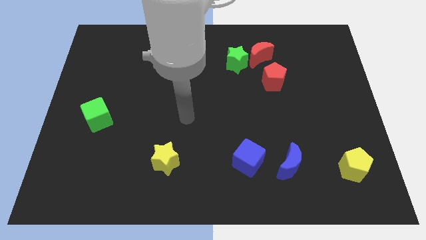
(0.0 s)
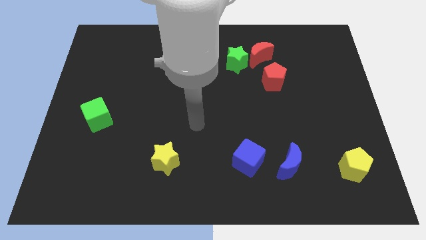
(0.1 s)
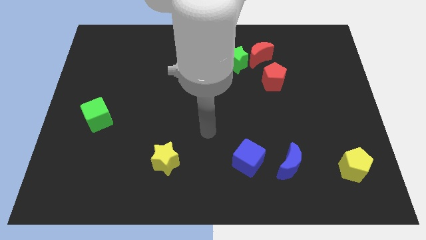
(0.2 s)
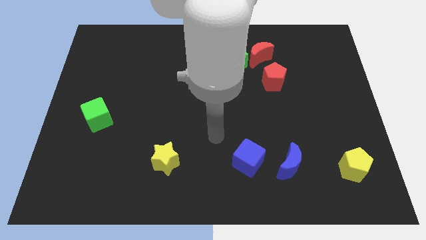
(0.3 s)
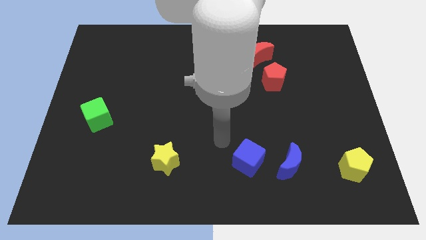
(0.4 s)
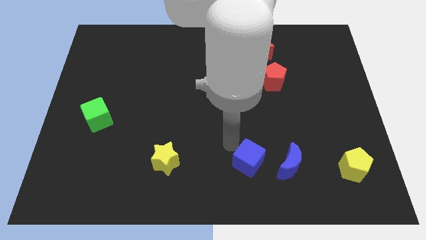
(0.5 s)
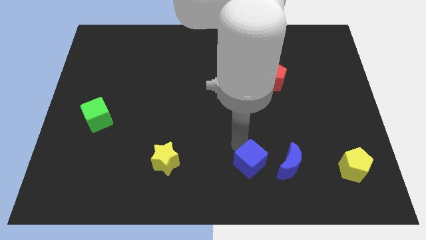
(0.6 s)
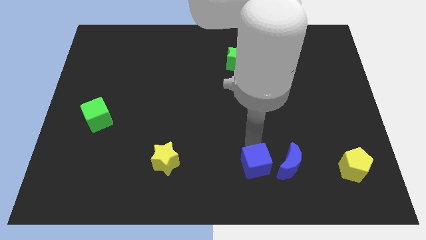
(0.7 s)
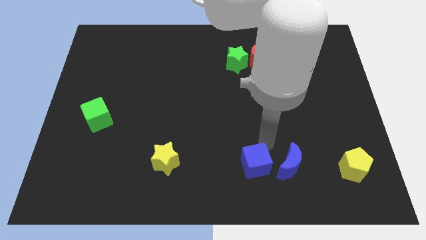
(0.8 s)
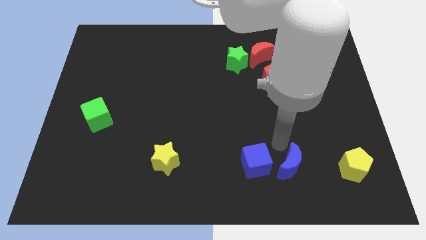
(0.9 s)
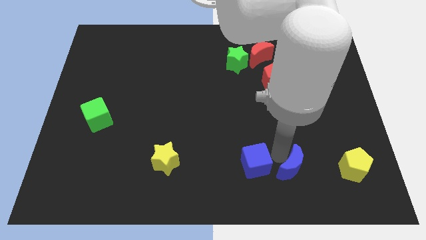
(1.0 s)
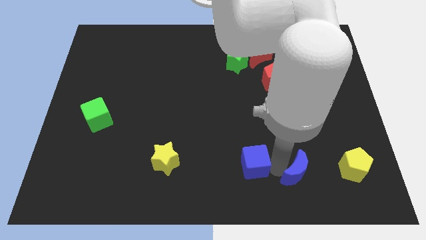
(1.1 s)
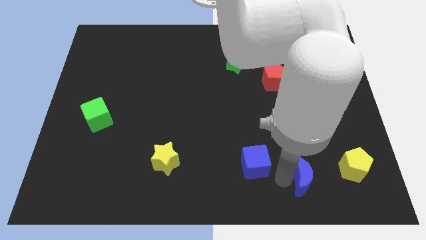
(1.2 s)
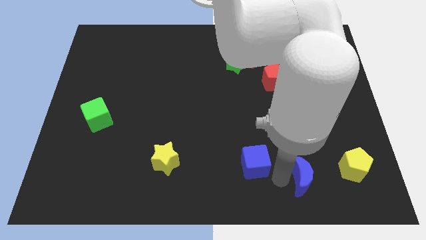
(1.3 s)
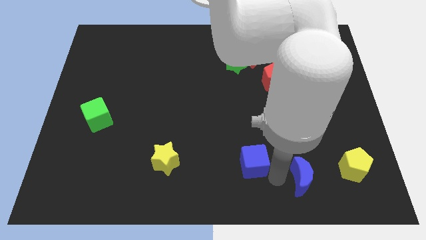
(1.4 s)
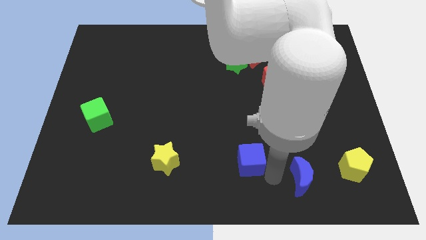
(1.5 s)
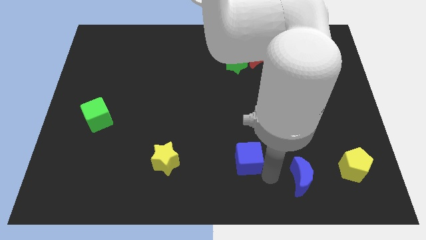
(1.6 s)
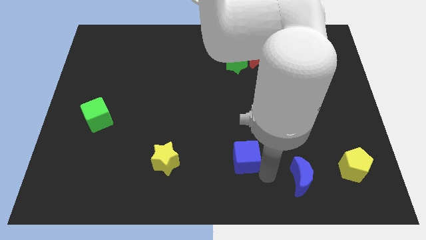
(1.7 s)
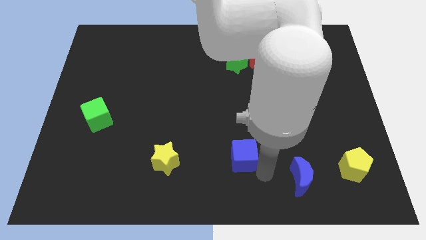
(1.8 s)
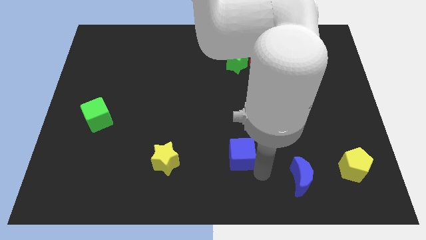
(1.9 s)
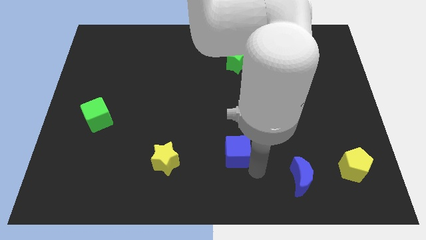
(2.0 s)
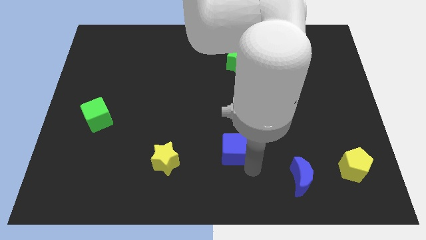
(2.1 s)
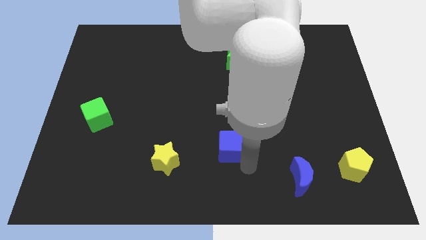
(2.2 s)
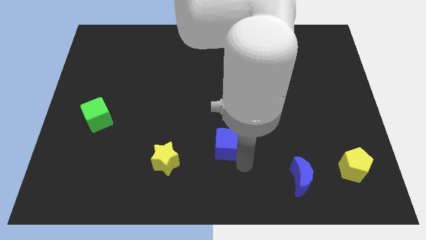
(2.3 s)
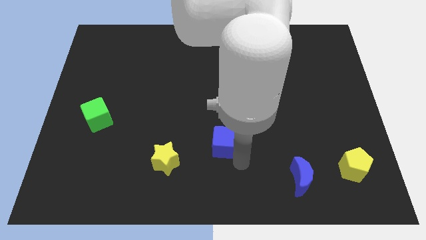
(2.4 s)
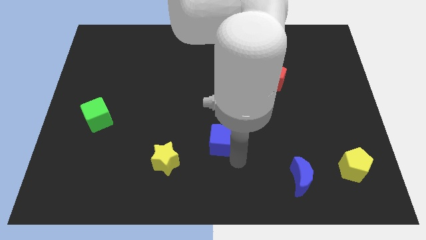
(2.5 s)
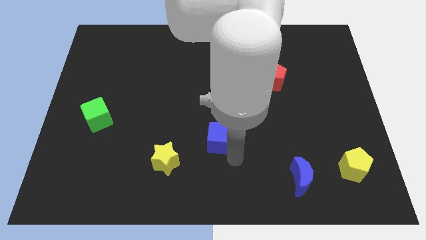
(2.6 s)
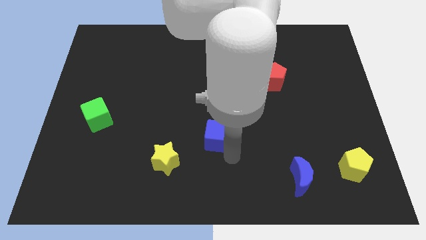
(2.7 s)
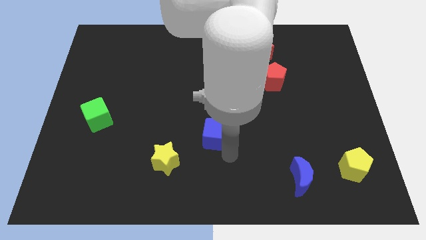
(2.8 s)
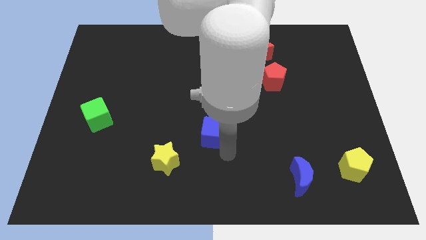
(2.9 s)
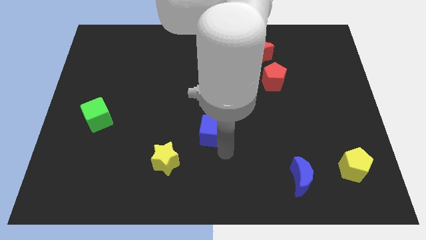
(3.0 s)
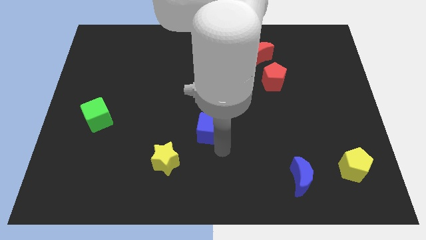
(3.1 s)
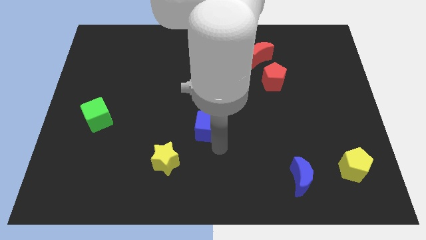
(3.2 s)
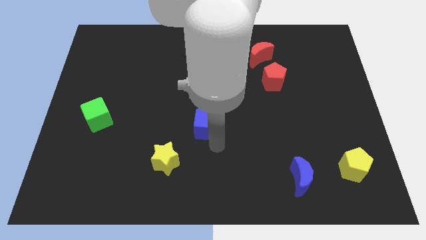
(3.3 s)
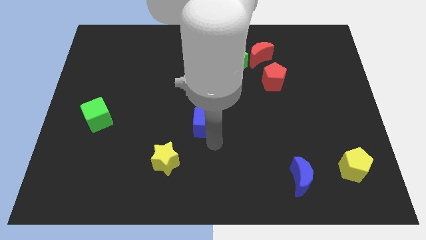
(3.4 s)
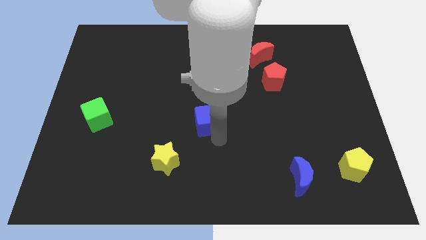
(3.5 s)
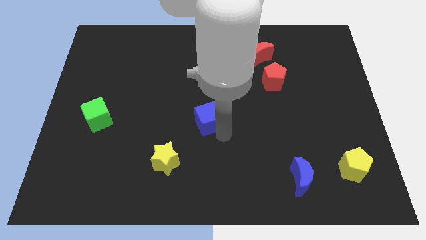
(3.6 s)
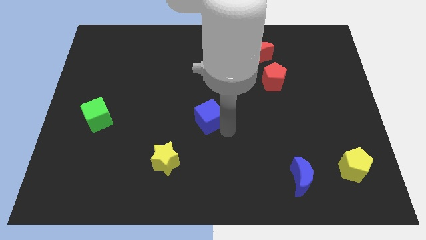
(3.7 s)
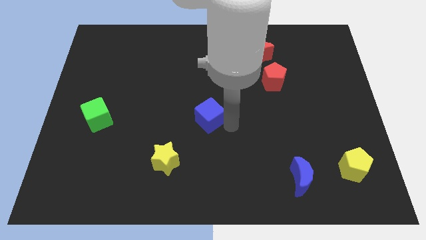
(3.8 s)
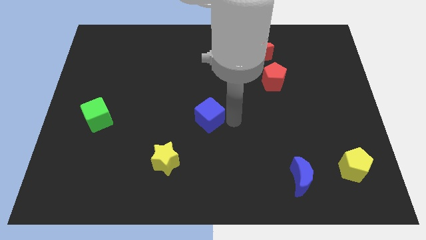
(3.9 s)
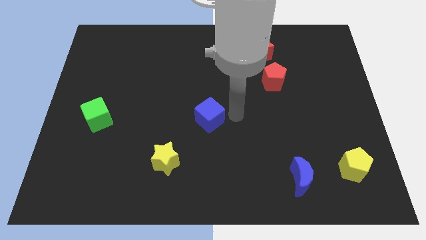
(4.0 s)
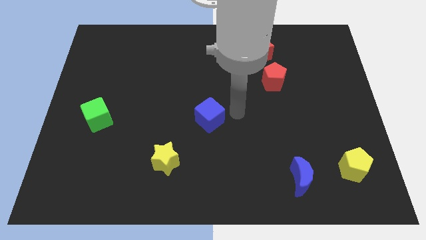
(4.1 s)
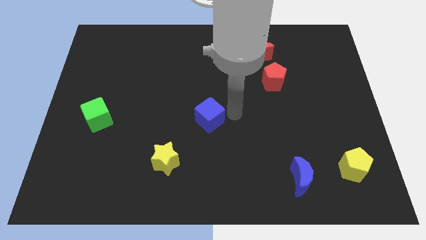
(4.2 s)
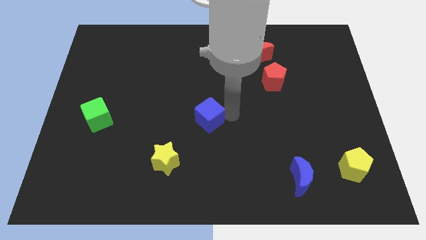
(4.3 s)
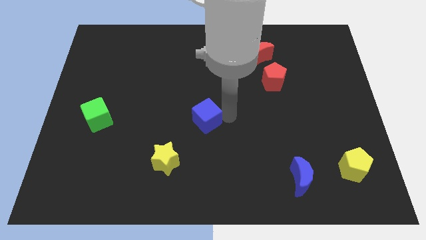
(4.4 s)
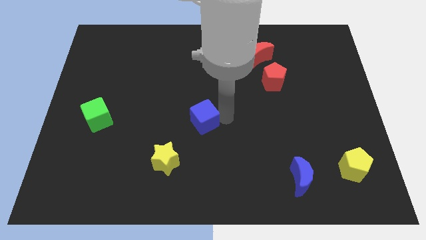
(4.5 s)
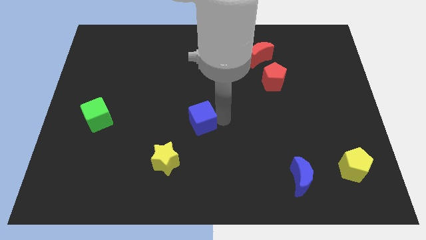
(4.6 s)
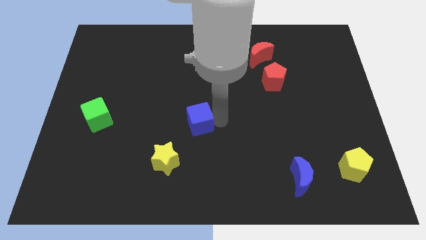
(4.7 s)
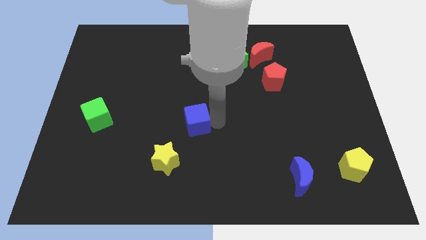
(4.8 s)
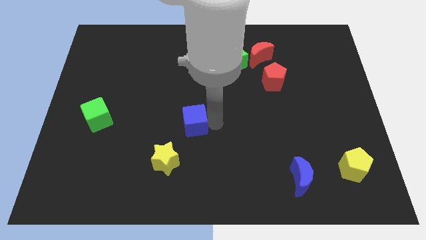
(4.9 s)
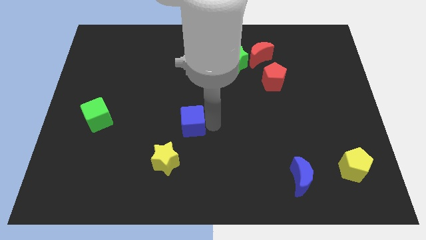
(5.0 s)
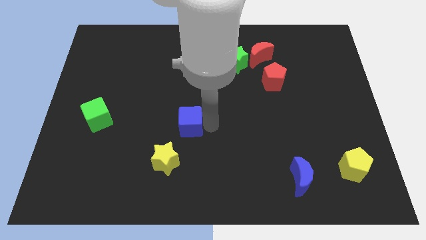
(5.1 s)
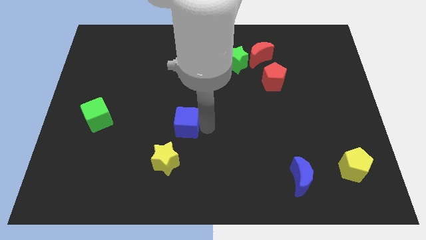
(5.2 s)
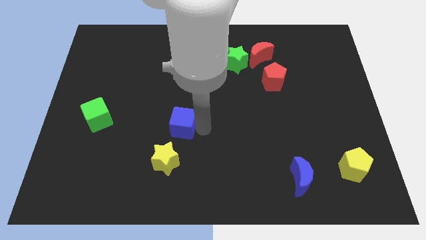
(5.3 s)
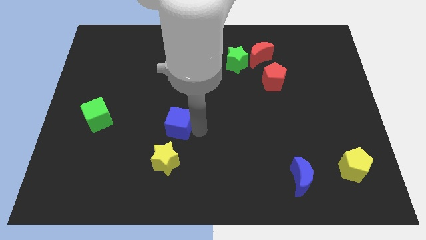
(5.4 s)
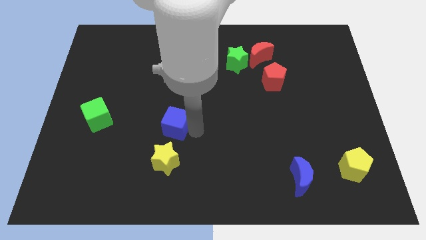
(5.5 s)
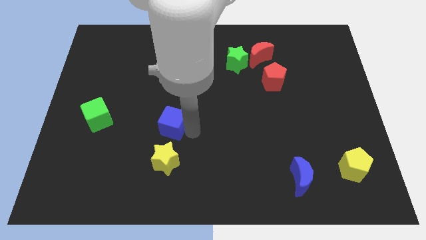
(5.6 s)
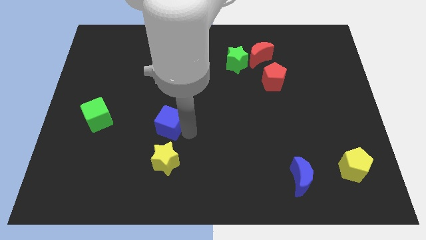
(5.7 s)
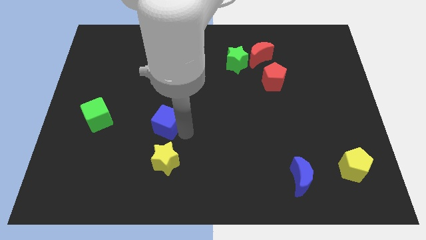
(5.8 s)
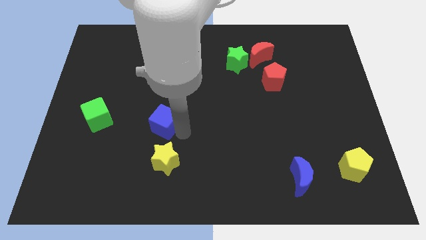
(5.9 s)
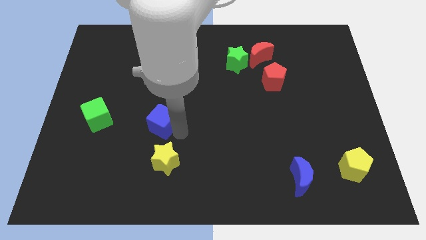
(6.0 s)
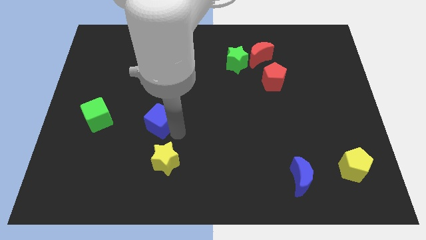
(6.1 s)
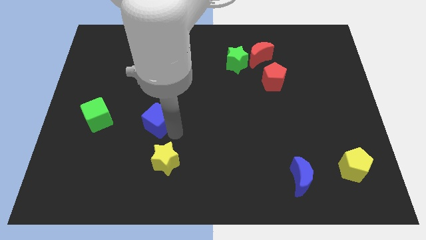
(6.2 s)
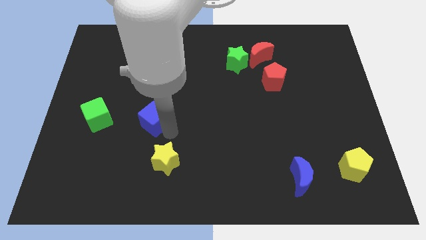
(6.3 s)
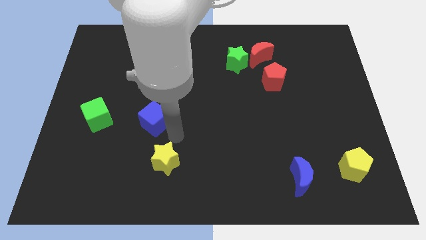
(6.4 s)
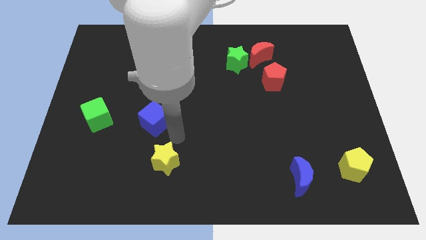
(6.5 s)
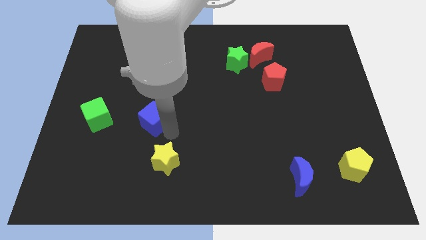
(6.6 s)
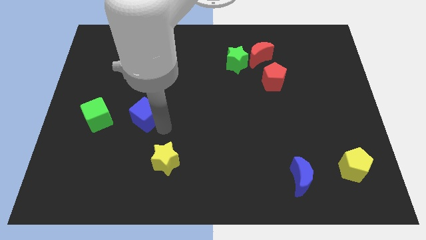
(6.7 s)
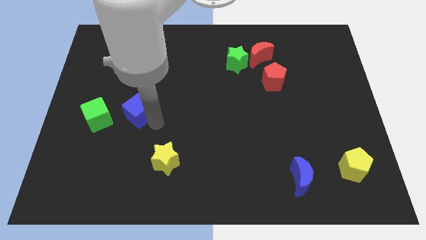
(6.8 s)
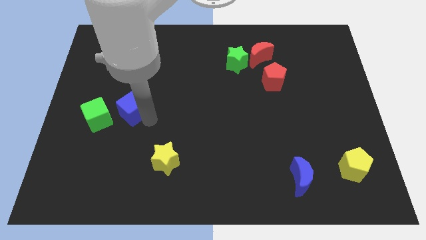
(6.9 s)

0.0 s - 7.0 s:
push the blue cube to the top right side of the green cube
